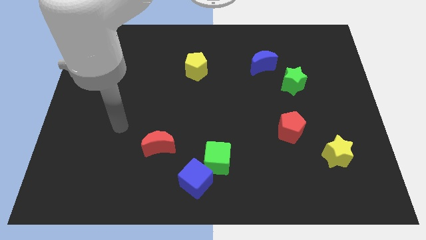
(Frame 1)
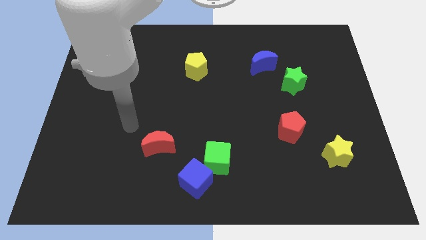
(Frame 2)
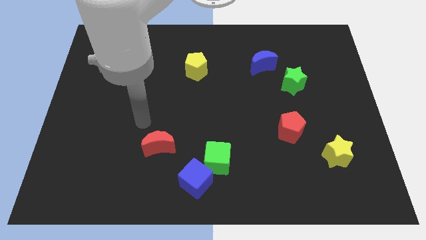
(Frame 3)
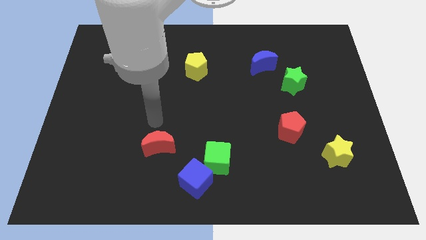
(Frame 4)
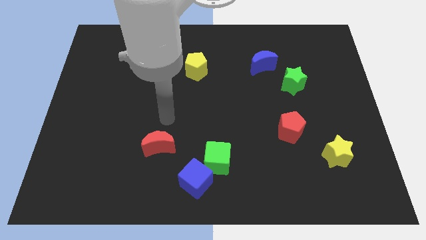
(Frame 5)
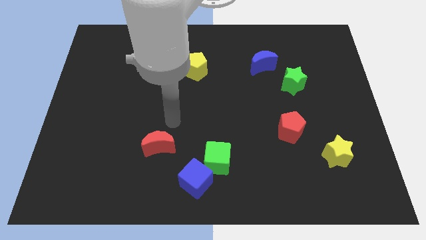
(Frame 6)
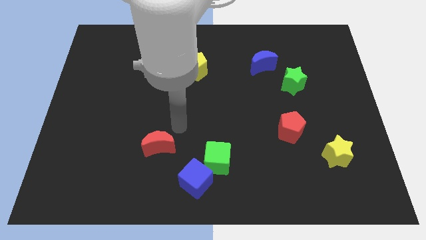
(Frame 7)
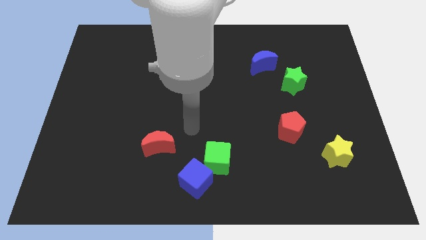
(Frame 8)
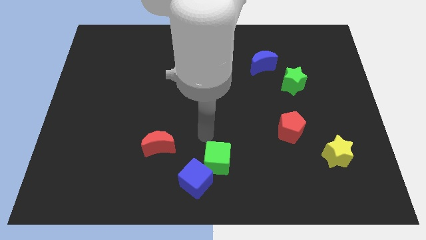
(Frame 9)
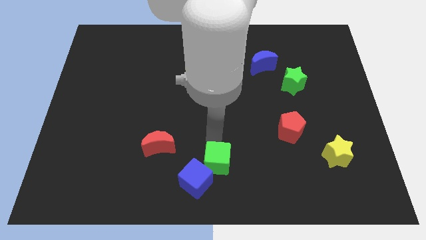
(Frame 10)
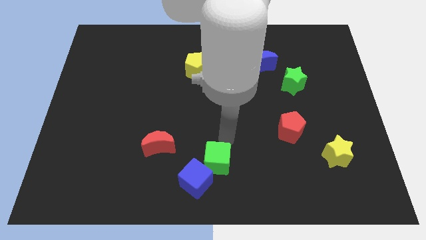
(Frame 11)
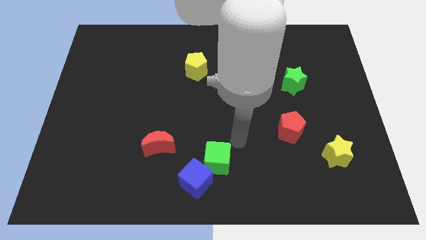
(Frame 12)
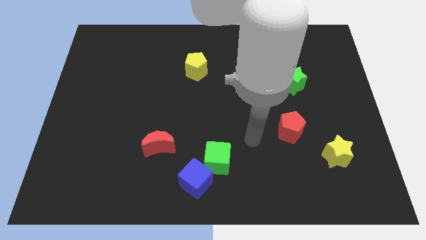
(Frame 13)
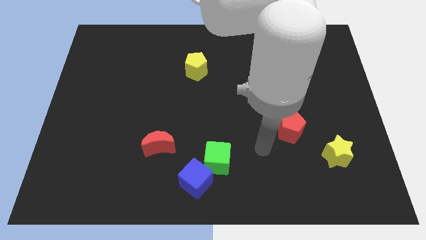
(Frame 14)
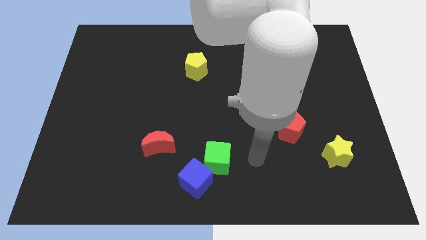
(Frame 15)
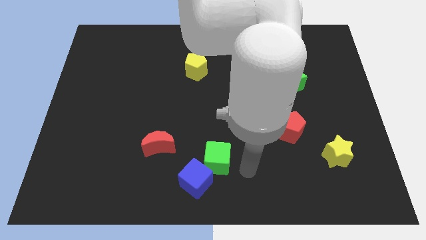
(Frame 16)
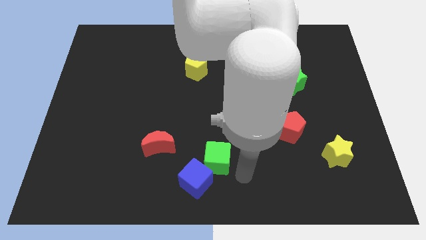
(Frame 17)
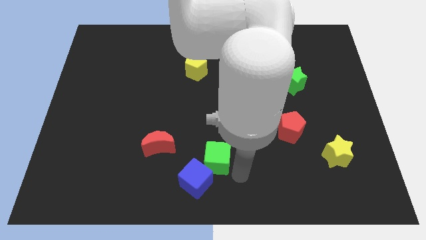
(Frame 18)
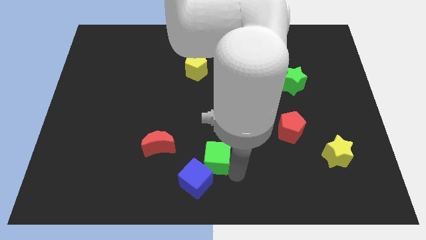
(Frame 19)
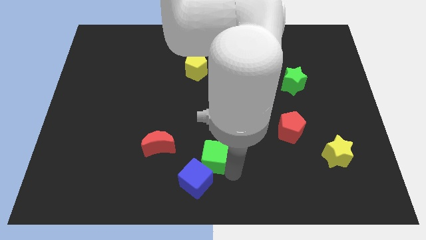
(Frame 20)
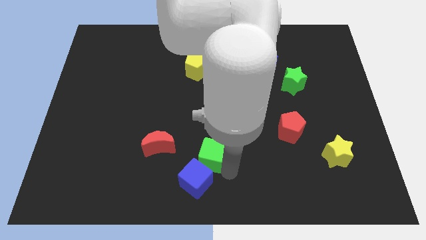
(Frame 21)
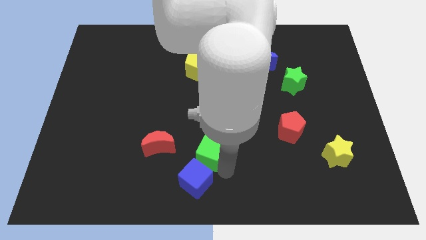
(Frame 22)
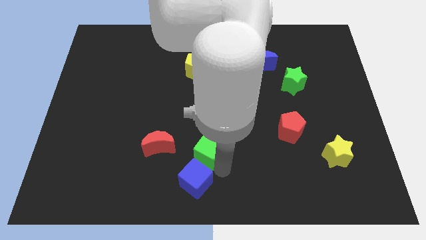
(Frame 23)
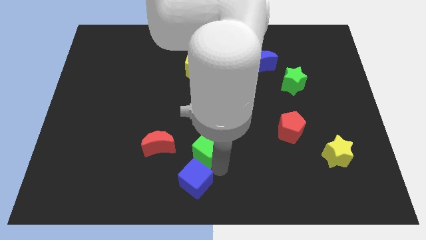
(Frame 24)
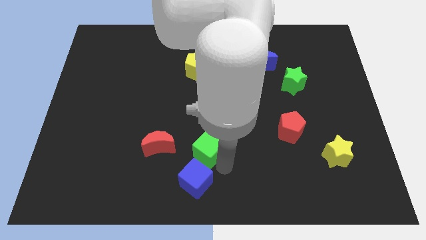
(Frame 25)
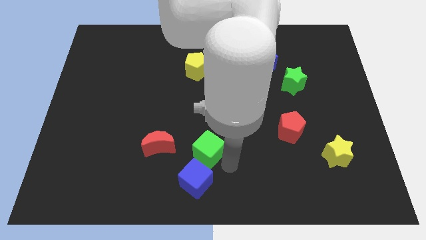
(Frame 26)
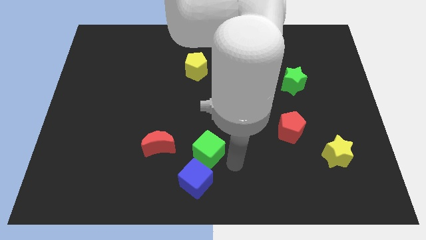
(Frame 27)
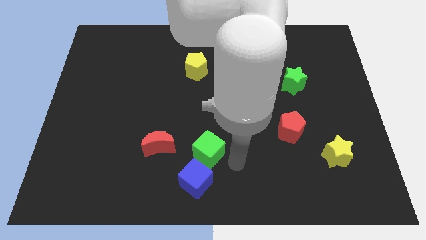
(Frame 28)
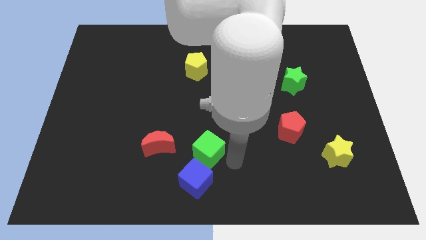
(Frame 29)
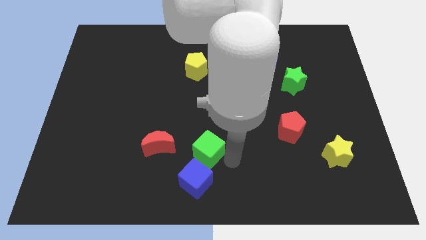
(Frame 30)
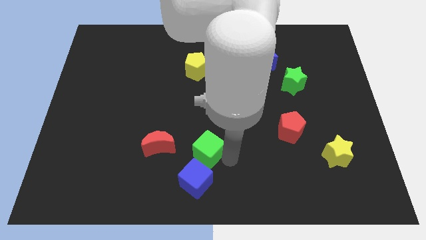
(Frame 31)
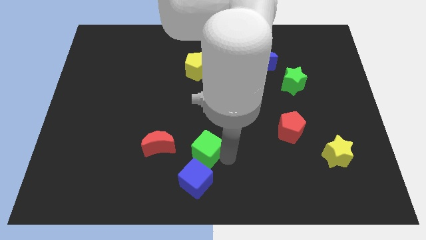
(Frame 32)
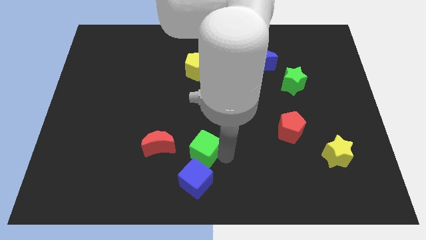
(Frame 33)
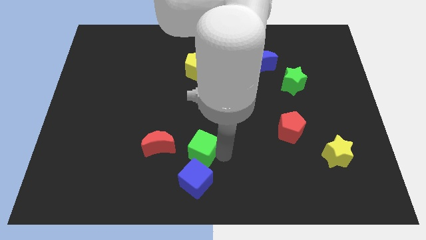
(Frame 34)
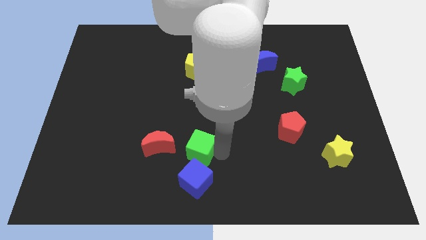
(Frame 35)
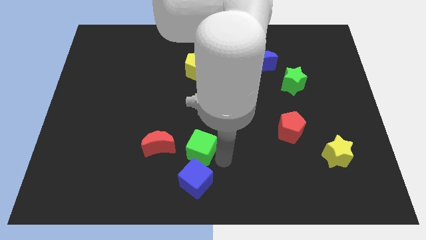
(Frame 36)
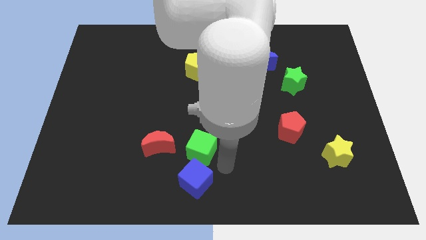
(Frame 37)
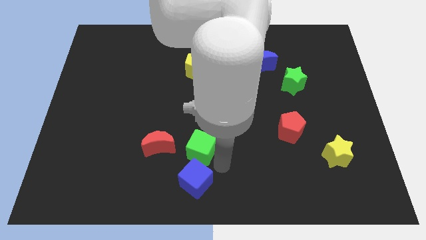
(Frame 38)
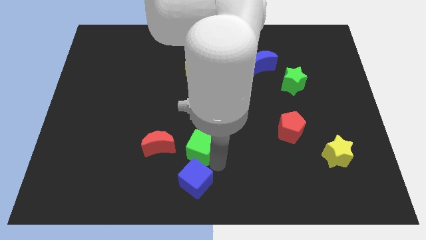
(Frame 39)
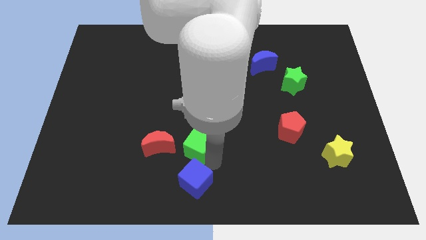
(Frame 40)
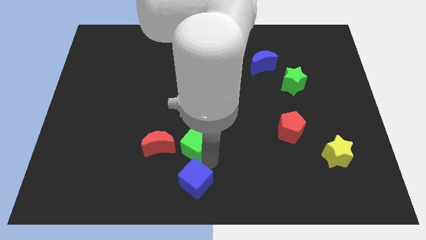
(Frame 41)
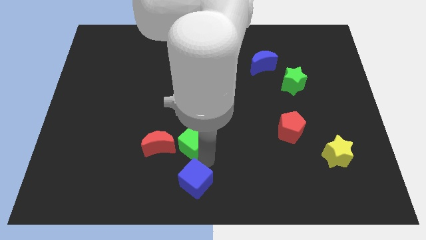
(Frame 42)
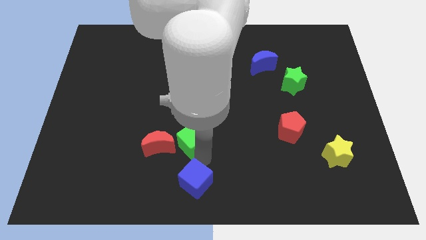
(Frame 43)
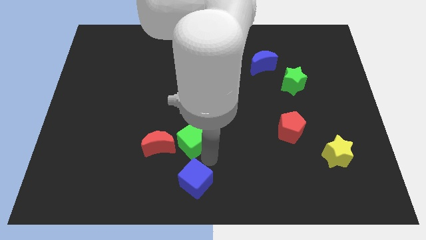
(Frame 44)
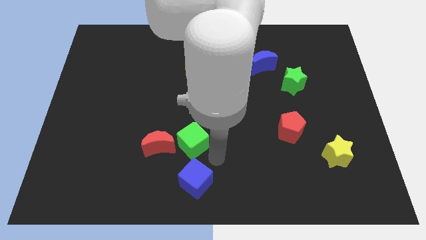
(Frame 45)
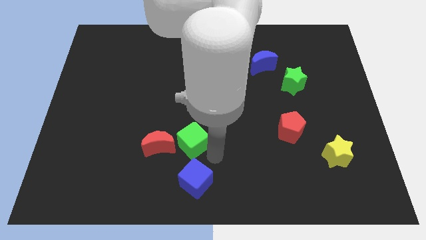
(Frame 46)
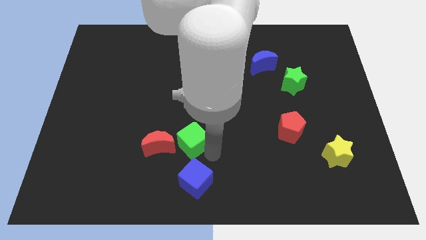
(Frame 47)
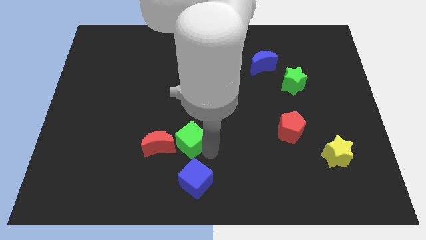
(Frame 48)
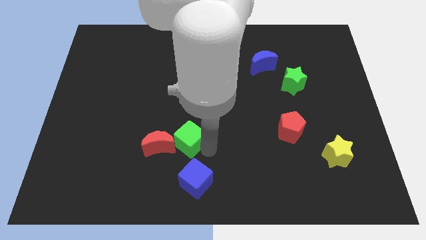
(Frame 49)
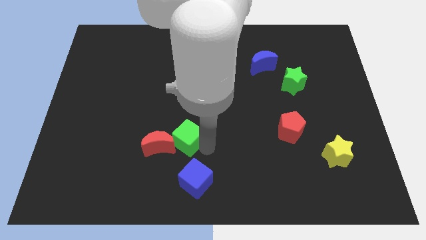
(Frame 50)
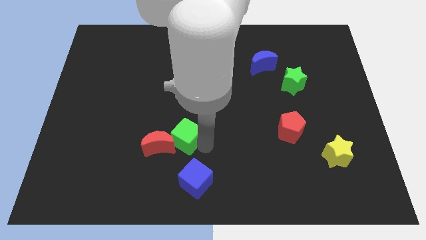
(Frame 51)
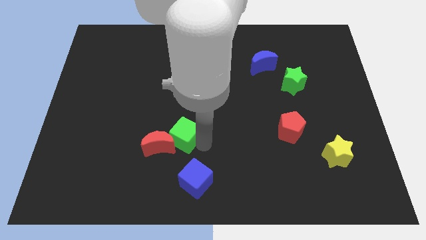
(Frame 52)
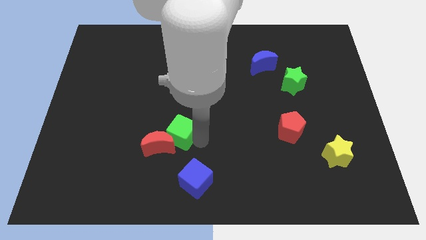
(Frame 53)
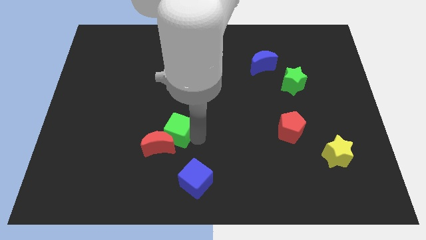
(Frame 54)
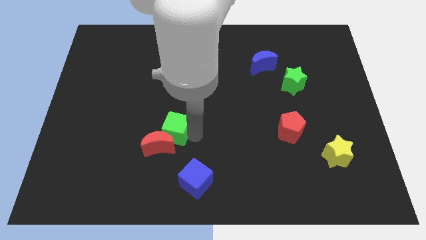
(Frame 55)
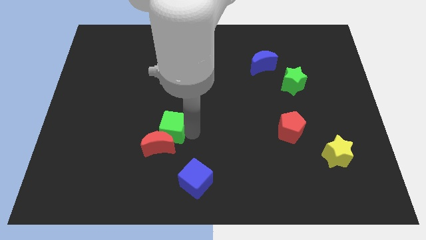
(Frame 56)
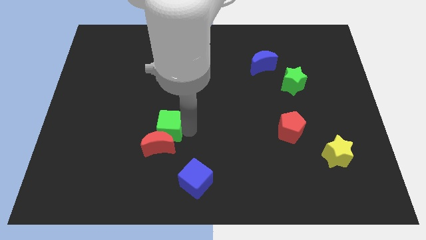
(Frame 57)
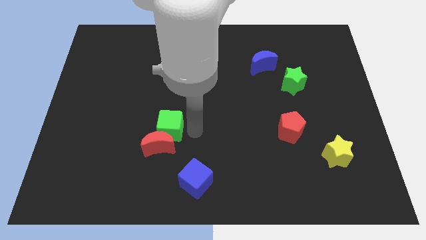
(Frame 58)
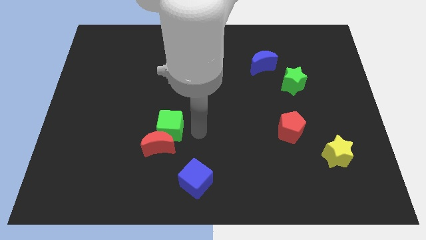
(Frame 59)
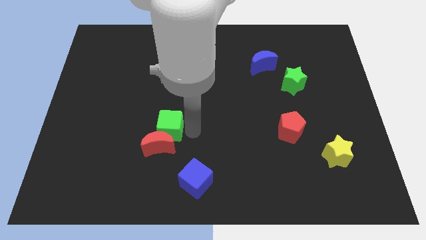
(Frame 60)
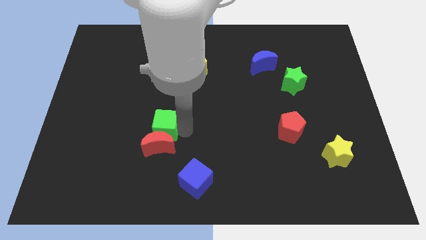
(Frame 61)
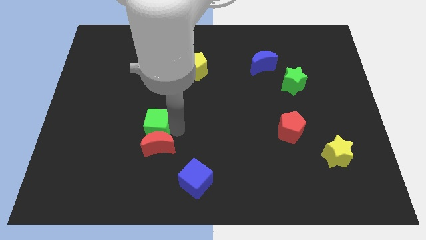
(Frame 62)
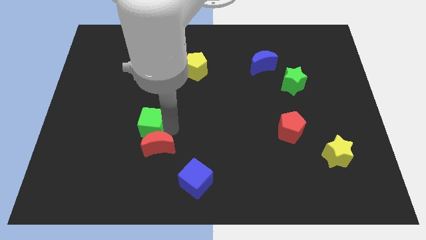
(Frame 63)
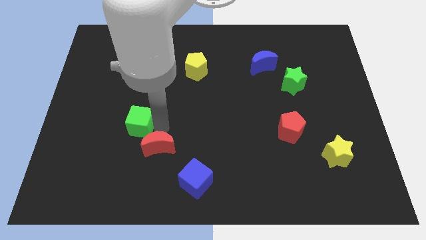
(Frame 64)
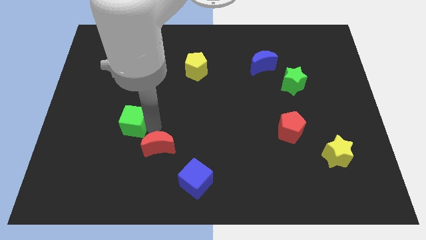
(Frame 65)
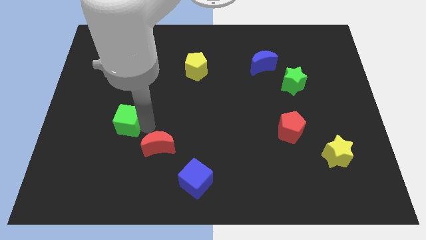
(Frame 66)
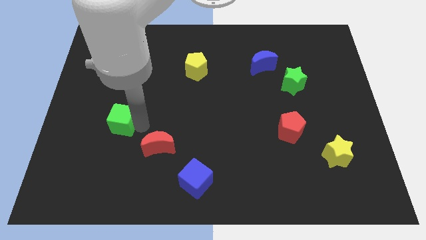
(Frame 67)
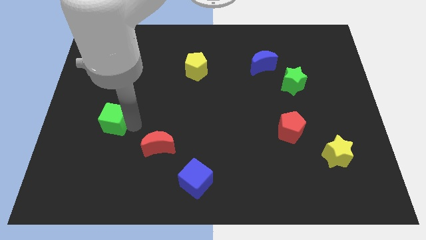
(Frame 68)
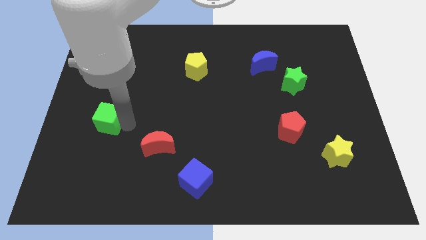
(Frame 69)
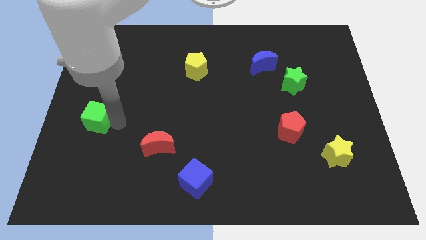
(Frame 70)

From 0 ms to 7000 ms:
push the green cube to the left side
